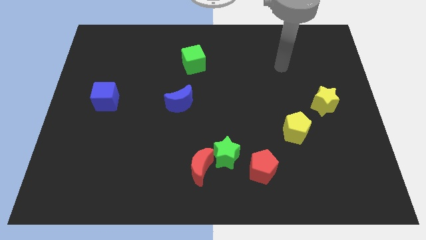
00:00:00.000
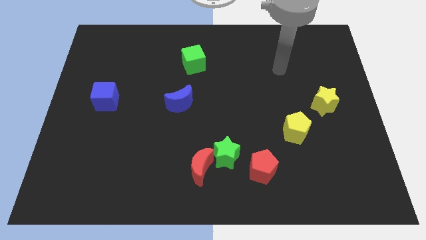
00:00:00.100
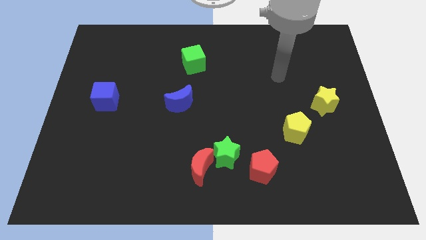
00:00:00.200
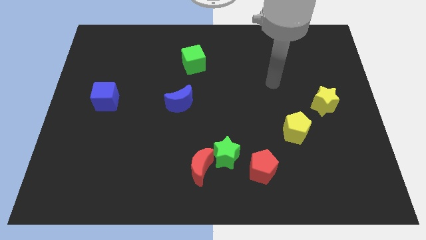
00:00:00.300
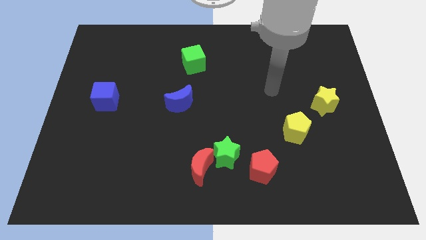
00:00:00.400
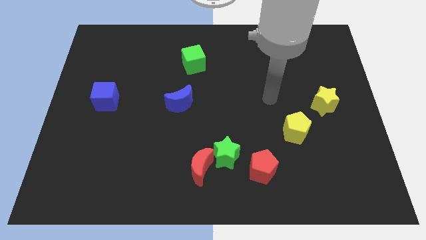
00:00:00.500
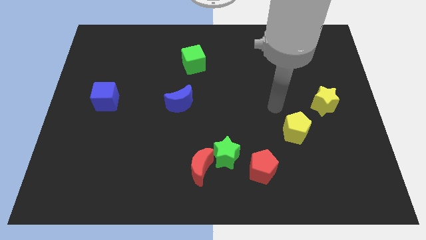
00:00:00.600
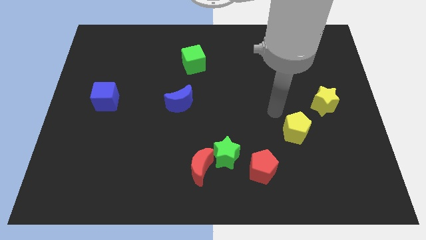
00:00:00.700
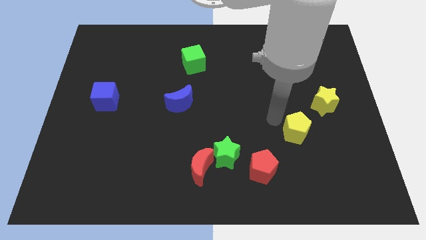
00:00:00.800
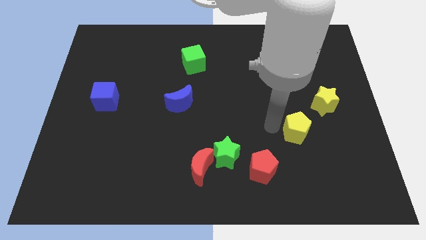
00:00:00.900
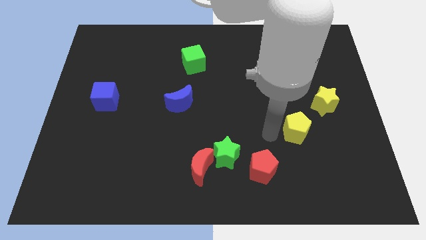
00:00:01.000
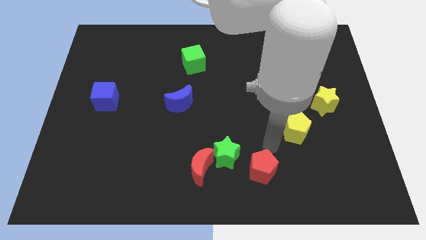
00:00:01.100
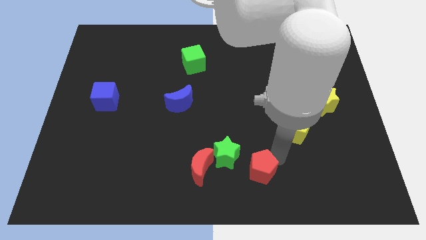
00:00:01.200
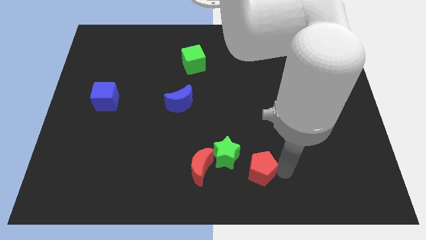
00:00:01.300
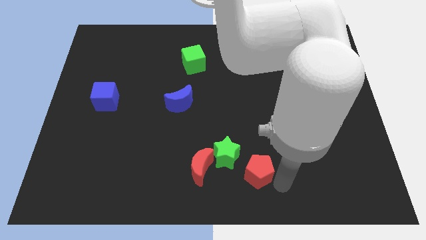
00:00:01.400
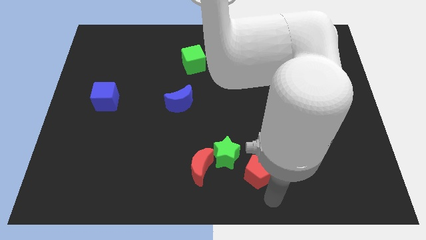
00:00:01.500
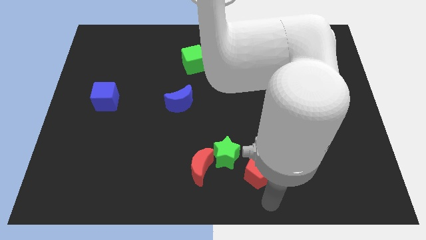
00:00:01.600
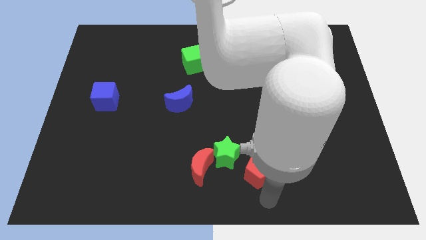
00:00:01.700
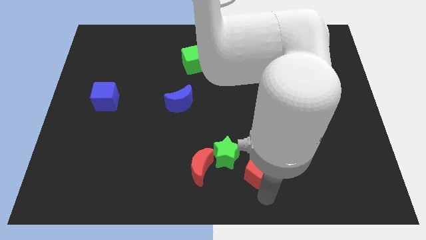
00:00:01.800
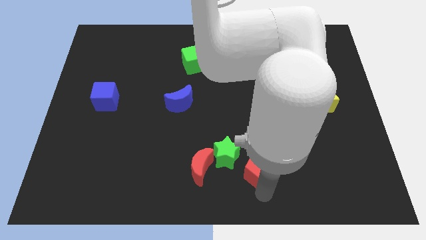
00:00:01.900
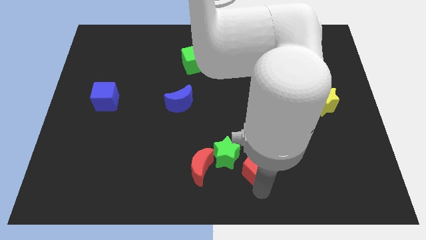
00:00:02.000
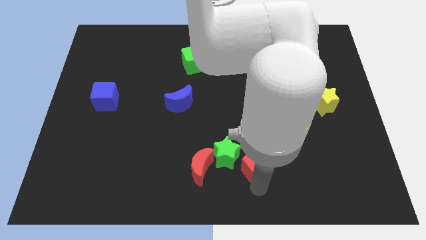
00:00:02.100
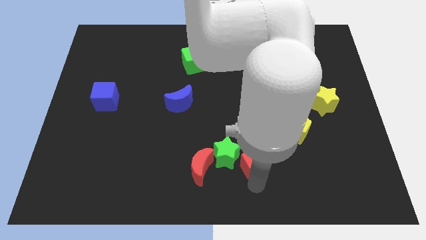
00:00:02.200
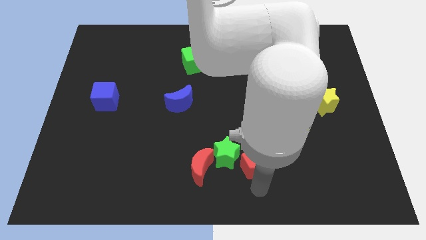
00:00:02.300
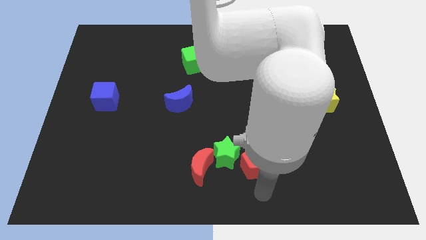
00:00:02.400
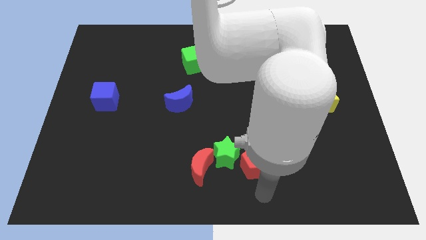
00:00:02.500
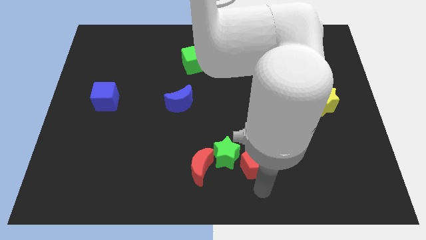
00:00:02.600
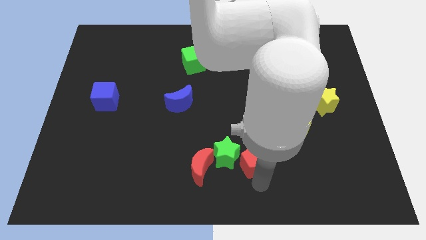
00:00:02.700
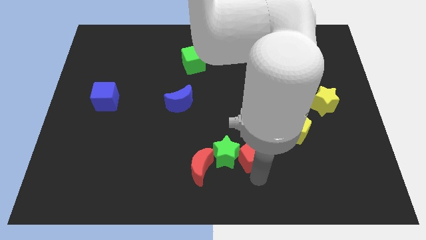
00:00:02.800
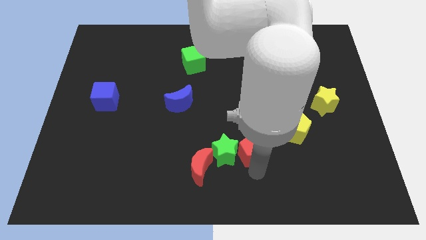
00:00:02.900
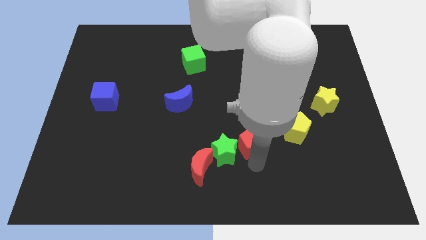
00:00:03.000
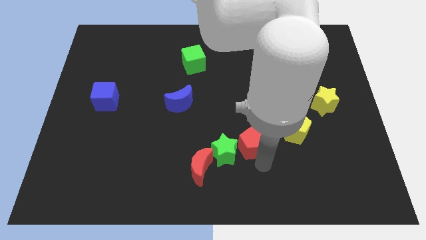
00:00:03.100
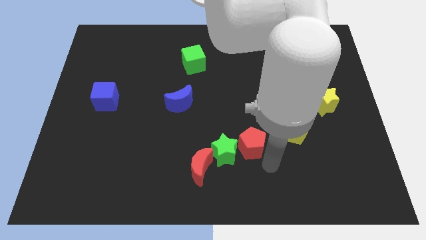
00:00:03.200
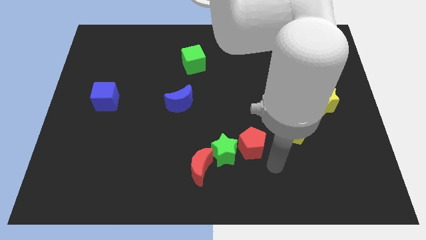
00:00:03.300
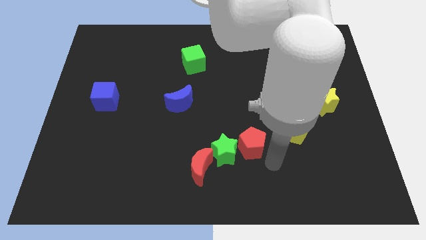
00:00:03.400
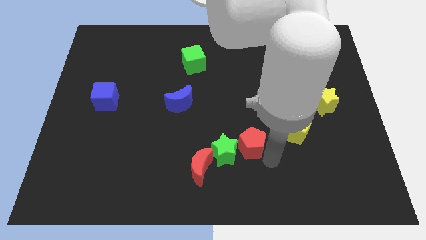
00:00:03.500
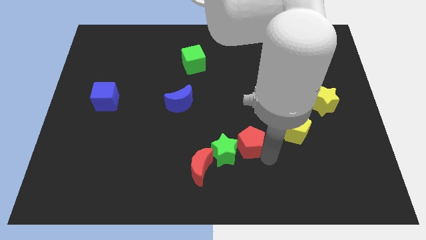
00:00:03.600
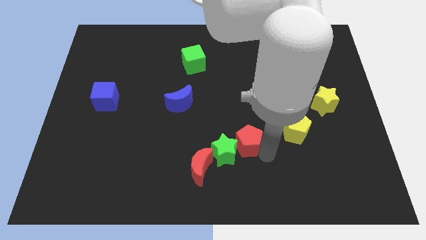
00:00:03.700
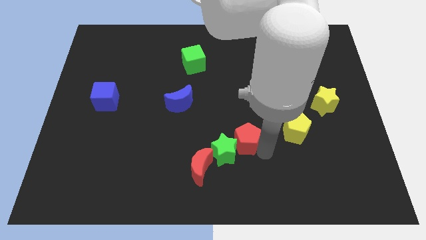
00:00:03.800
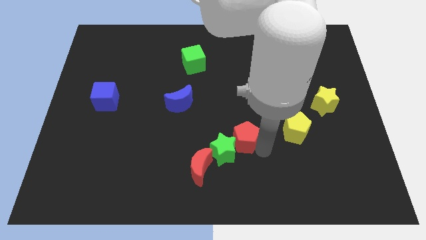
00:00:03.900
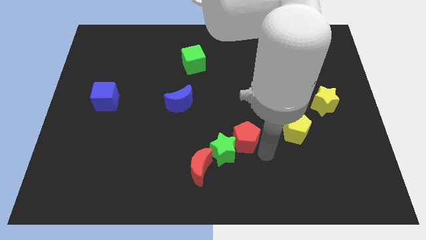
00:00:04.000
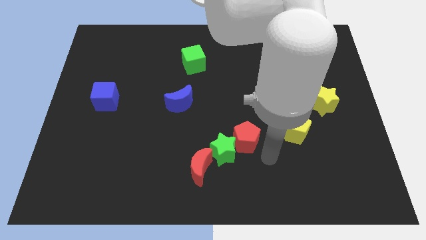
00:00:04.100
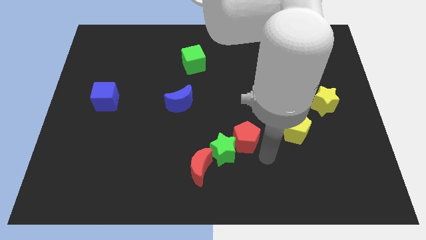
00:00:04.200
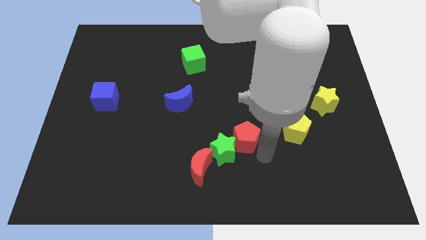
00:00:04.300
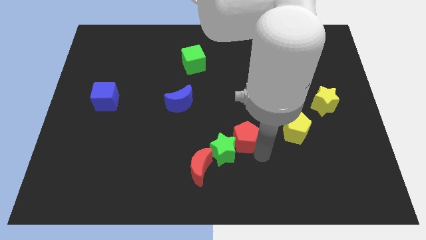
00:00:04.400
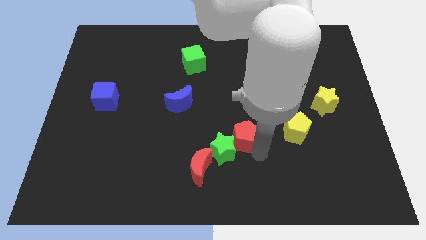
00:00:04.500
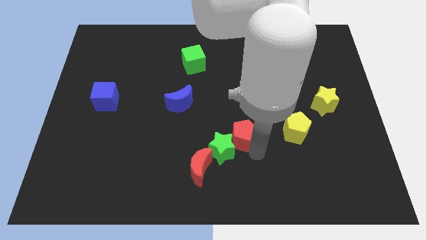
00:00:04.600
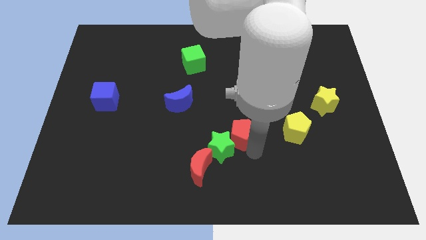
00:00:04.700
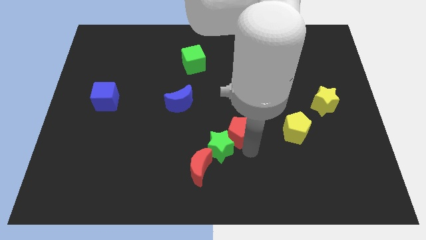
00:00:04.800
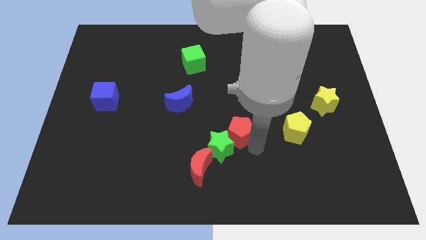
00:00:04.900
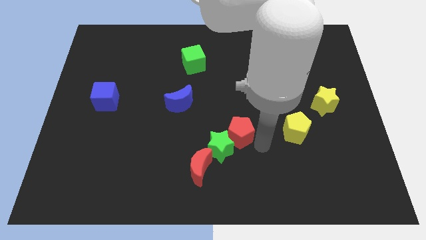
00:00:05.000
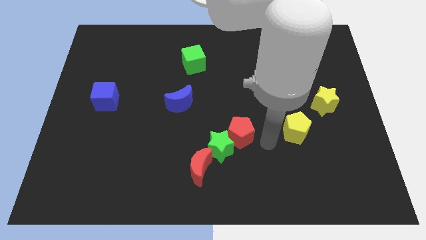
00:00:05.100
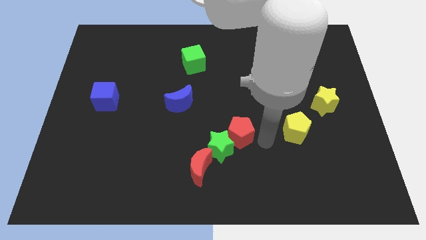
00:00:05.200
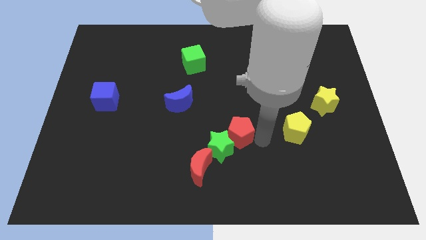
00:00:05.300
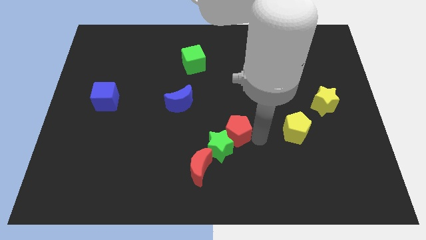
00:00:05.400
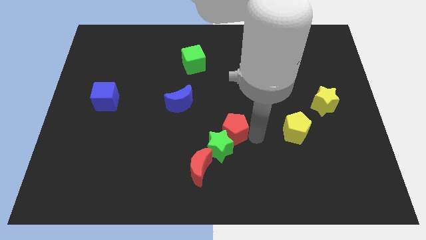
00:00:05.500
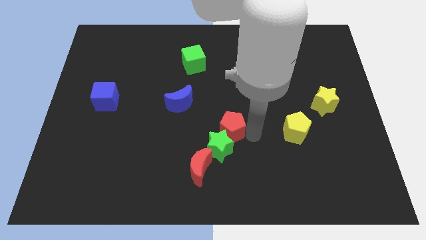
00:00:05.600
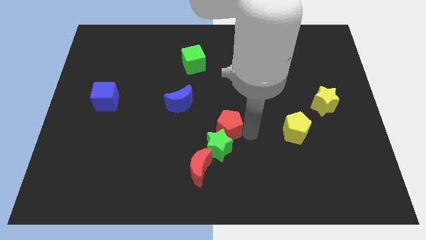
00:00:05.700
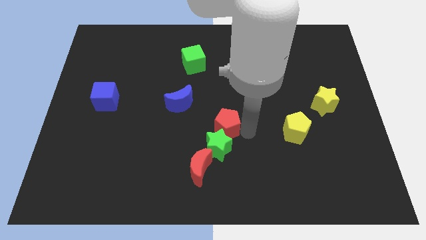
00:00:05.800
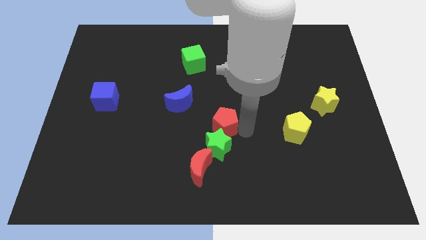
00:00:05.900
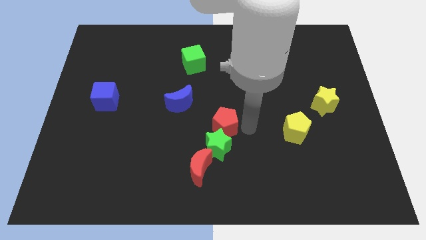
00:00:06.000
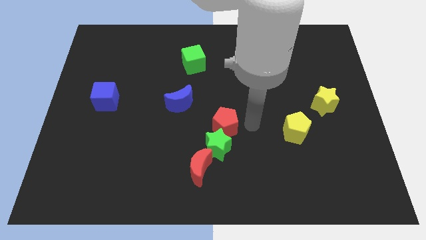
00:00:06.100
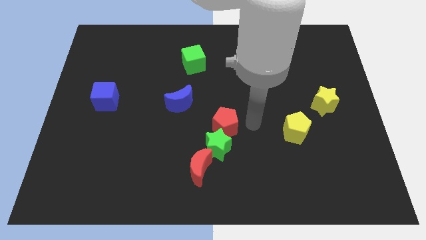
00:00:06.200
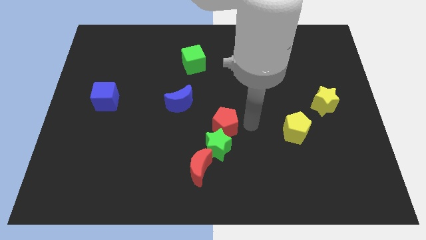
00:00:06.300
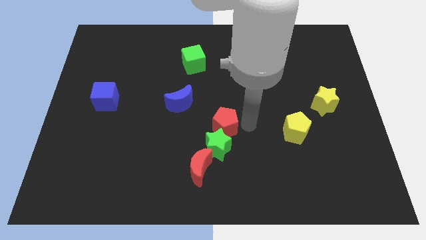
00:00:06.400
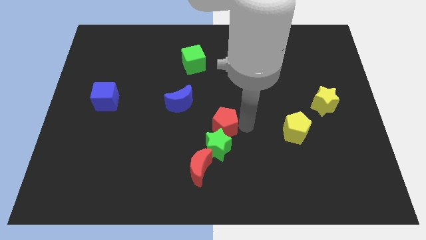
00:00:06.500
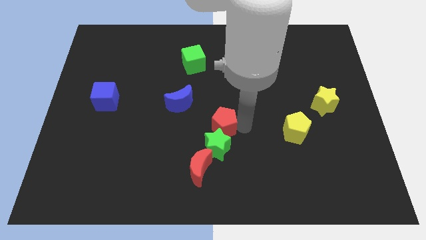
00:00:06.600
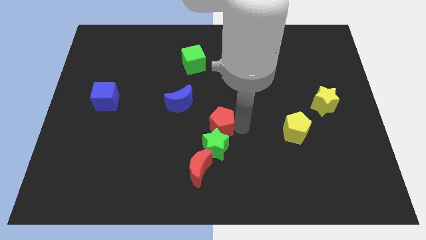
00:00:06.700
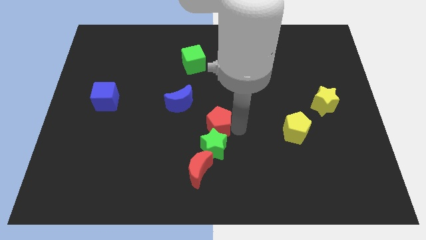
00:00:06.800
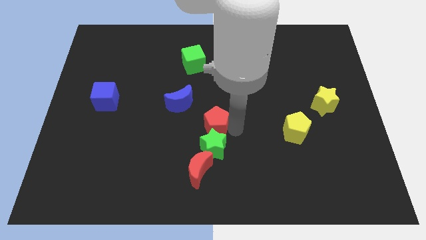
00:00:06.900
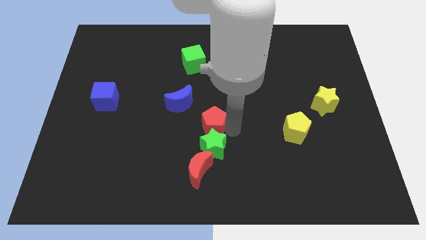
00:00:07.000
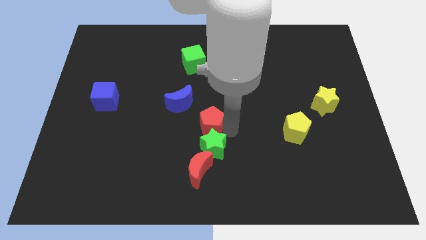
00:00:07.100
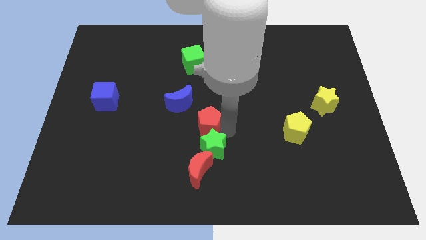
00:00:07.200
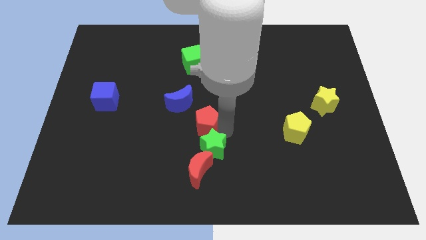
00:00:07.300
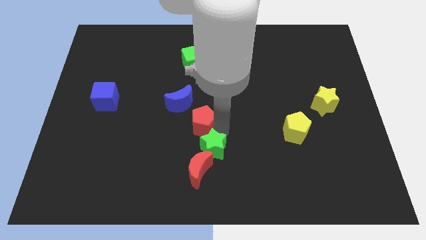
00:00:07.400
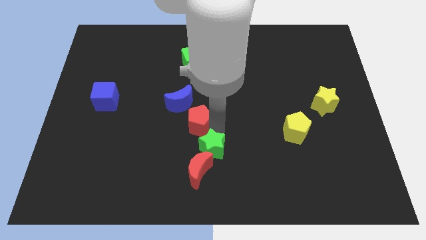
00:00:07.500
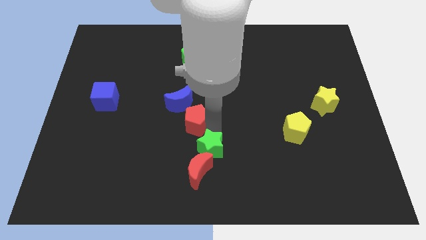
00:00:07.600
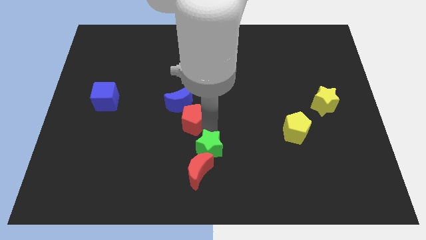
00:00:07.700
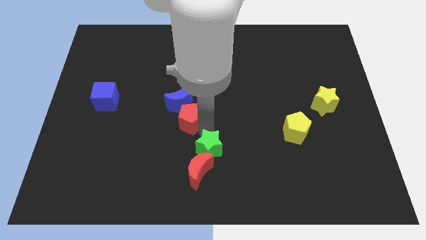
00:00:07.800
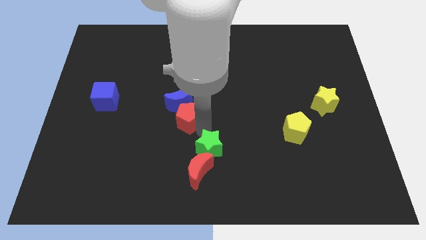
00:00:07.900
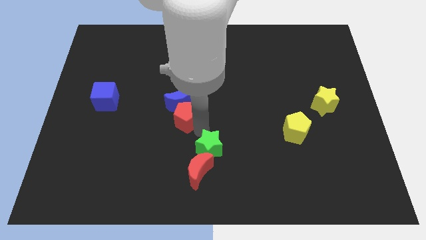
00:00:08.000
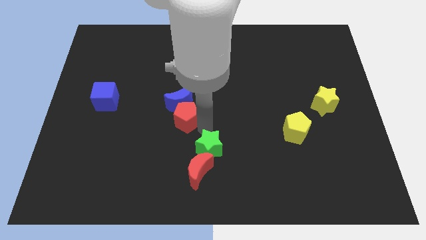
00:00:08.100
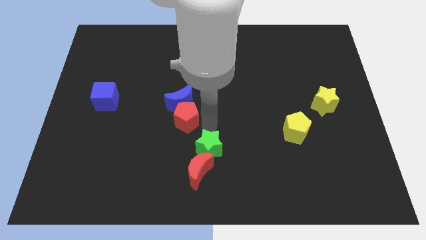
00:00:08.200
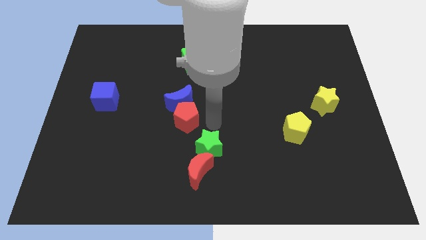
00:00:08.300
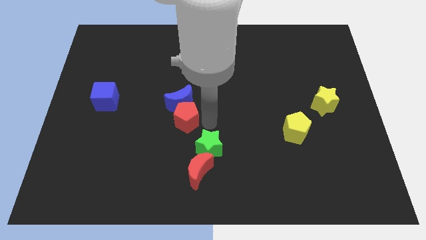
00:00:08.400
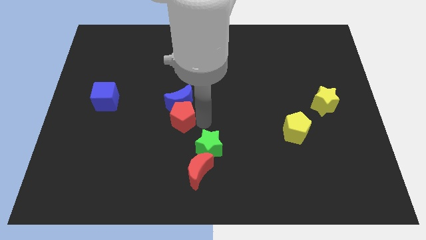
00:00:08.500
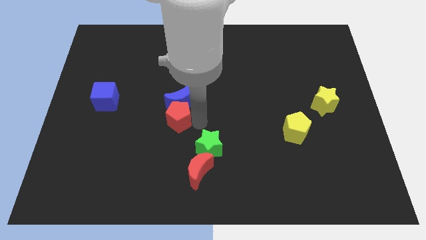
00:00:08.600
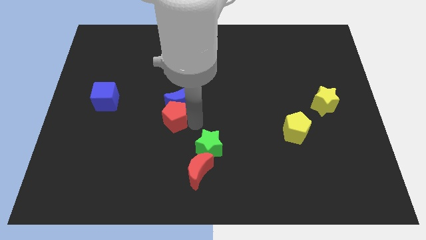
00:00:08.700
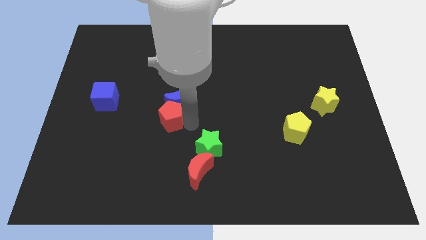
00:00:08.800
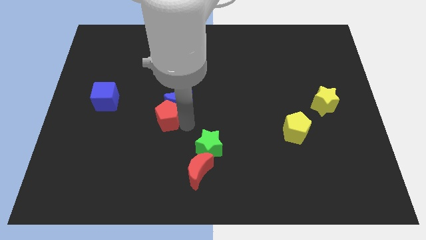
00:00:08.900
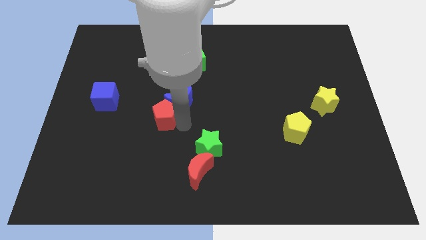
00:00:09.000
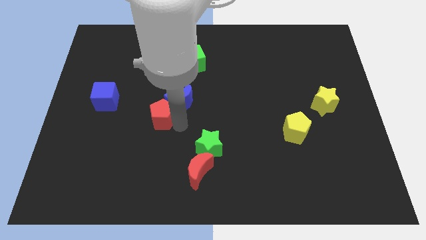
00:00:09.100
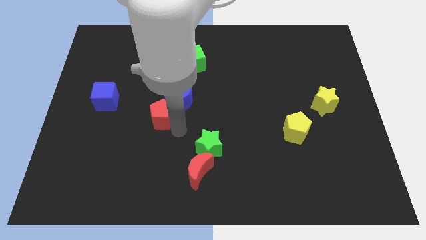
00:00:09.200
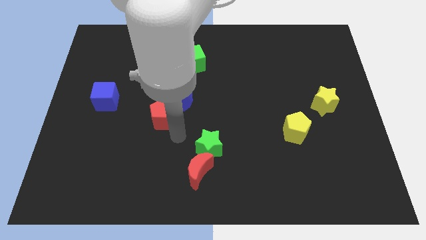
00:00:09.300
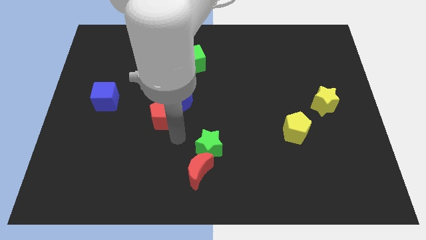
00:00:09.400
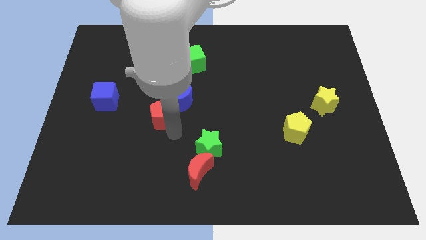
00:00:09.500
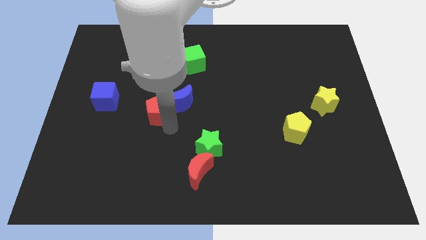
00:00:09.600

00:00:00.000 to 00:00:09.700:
move the red pentagon just right of the blue cube
